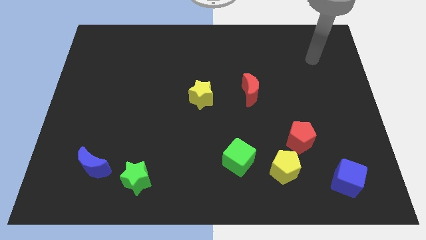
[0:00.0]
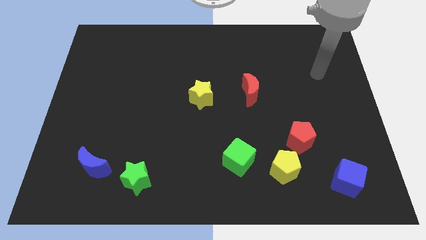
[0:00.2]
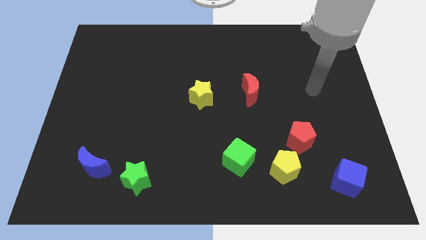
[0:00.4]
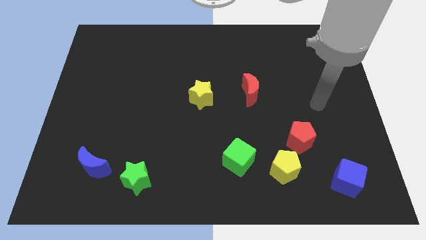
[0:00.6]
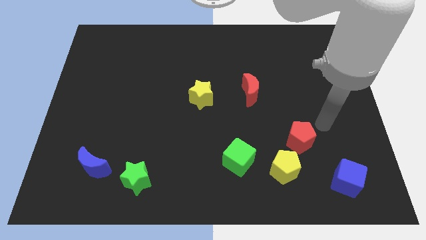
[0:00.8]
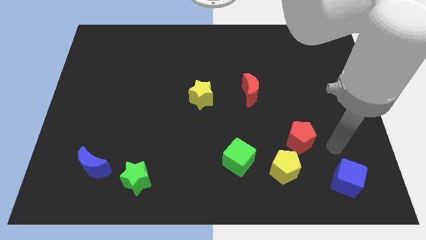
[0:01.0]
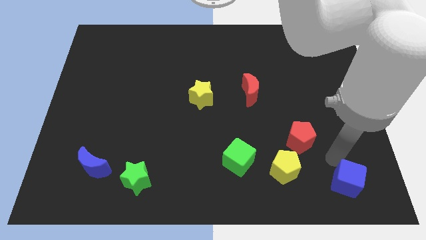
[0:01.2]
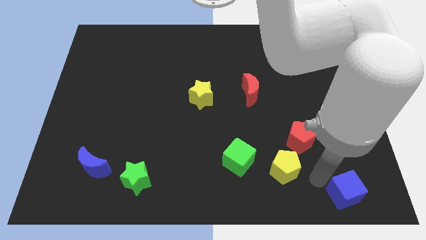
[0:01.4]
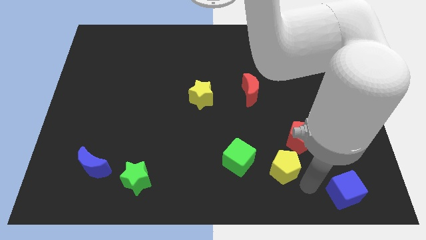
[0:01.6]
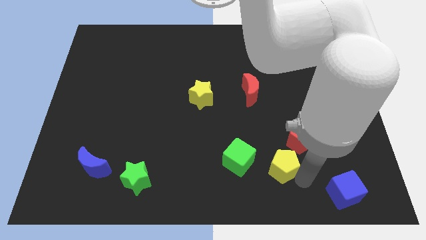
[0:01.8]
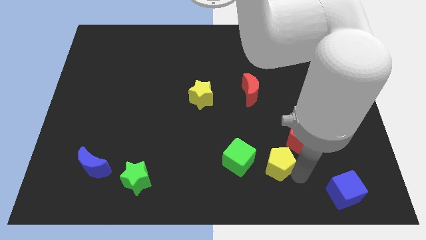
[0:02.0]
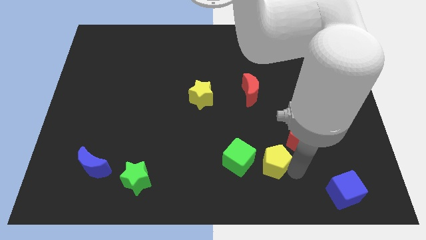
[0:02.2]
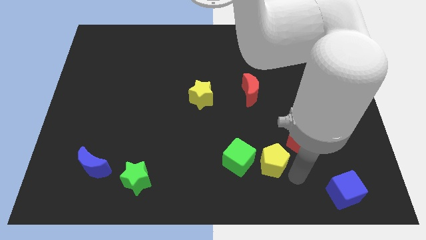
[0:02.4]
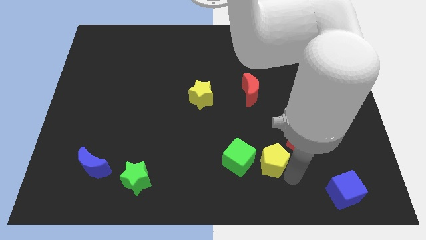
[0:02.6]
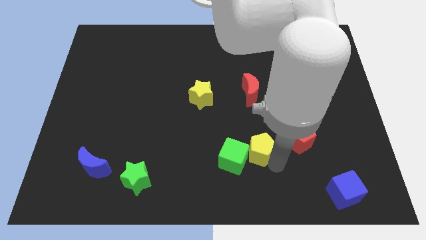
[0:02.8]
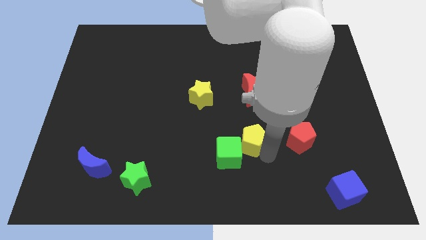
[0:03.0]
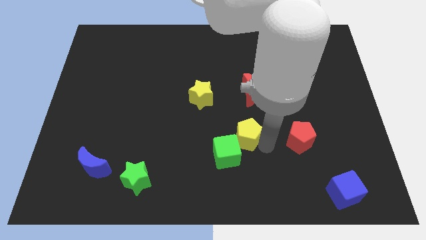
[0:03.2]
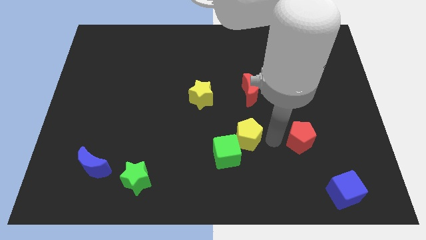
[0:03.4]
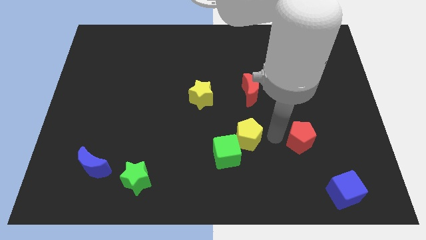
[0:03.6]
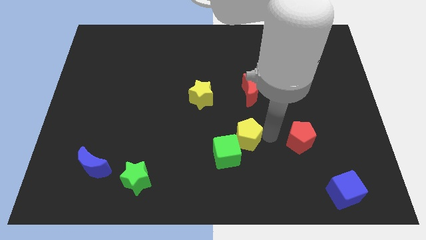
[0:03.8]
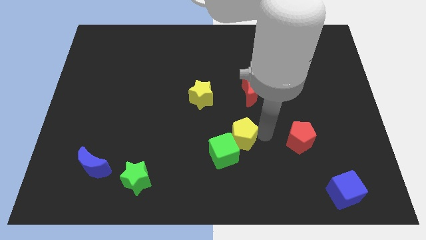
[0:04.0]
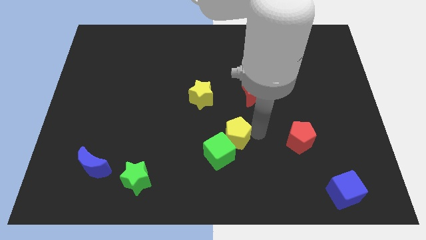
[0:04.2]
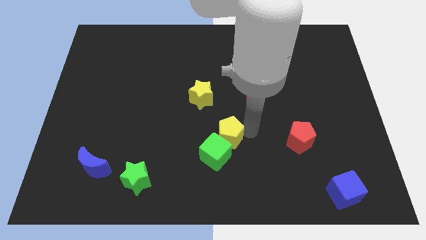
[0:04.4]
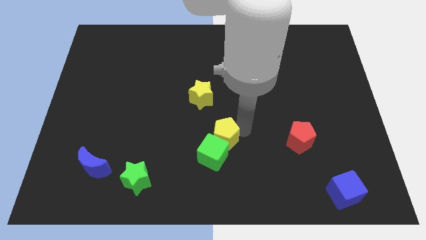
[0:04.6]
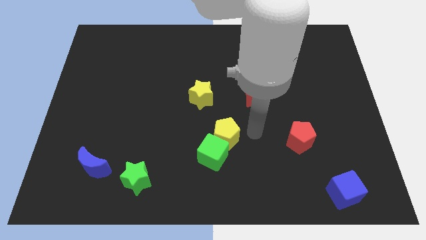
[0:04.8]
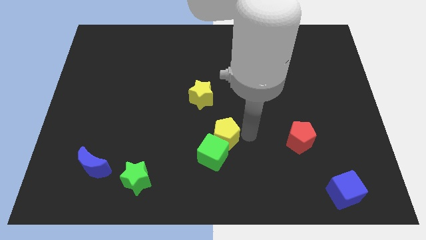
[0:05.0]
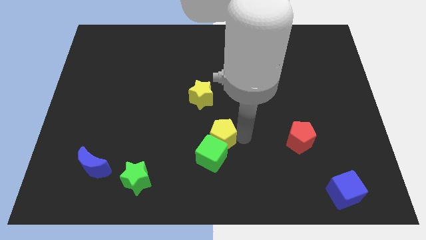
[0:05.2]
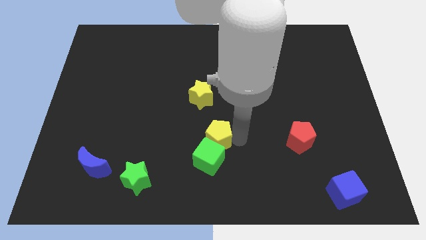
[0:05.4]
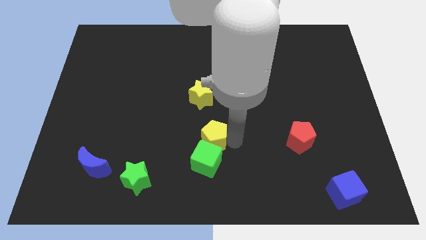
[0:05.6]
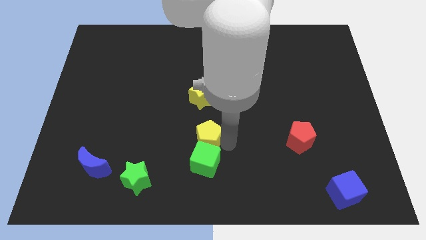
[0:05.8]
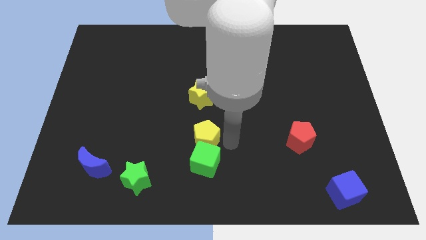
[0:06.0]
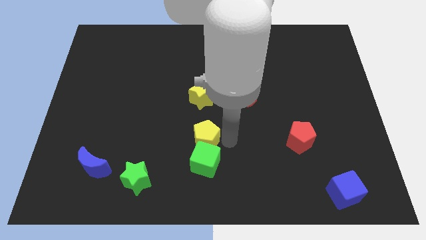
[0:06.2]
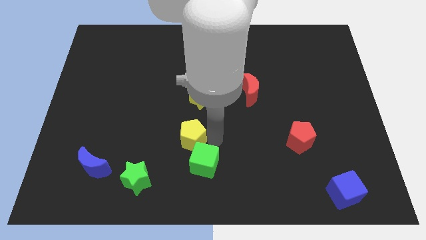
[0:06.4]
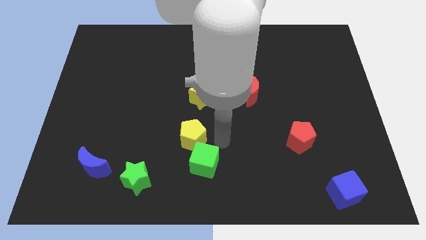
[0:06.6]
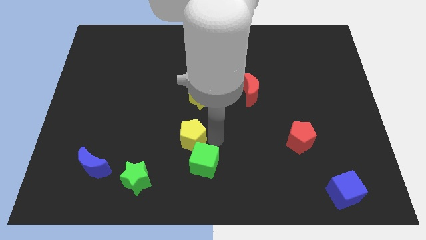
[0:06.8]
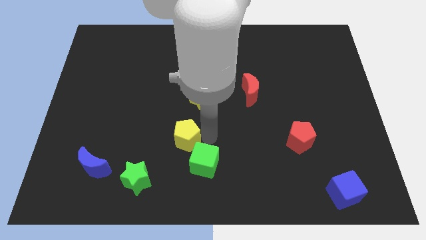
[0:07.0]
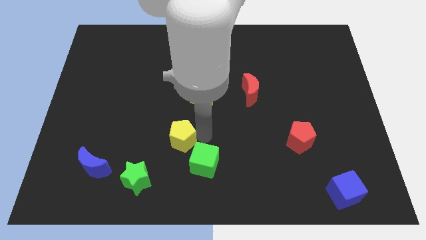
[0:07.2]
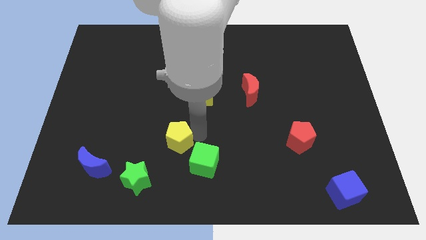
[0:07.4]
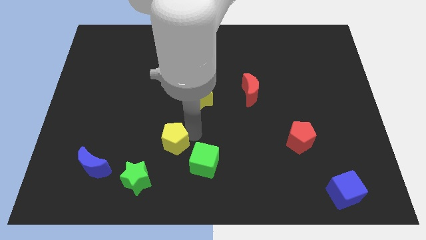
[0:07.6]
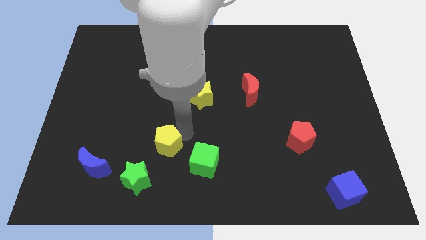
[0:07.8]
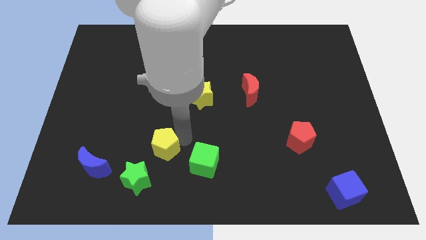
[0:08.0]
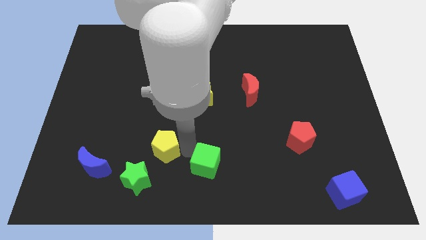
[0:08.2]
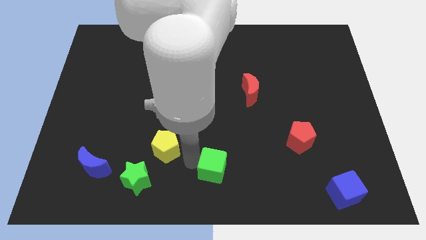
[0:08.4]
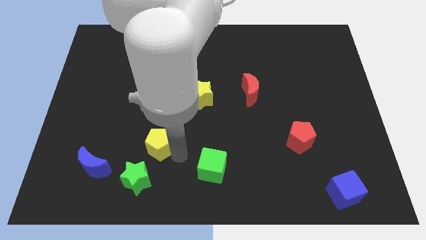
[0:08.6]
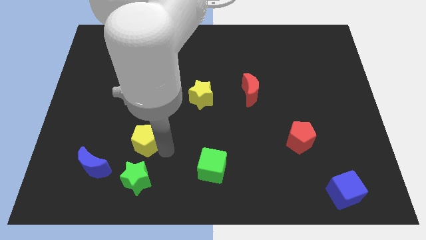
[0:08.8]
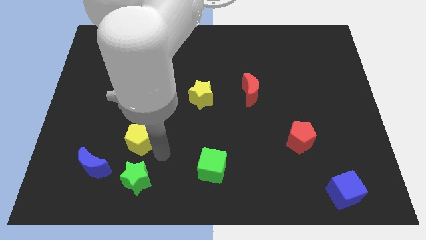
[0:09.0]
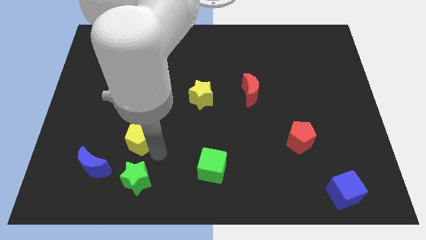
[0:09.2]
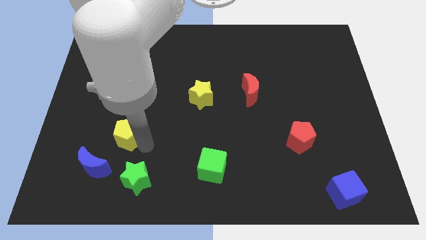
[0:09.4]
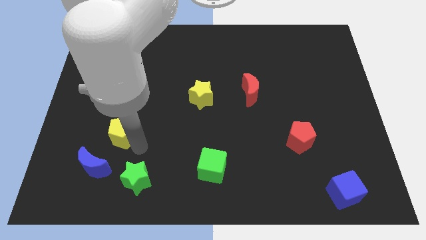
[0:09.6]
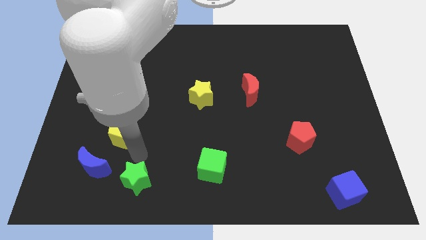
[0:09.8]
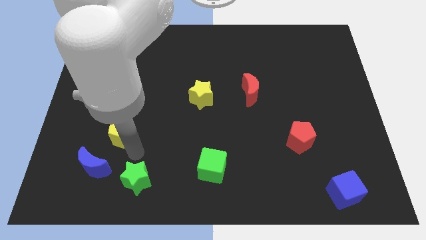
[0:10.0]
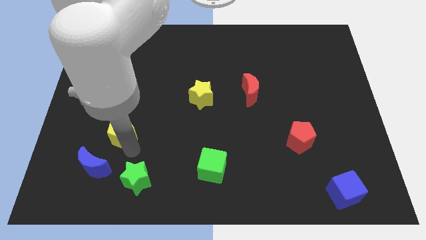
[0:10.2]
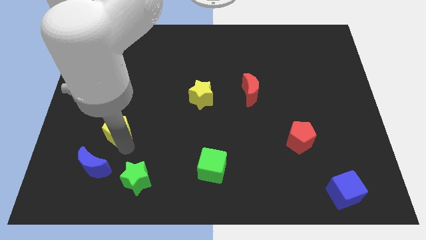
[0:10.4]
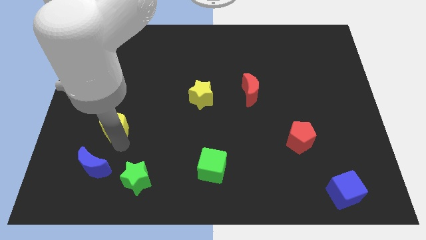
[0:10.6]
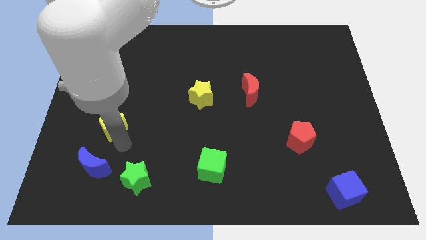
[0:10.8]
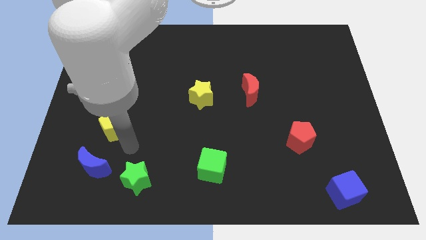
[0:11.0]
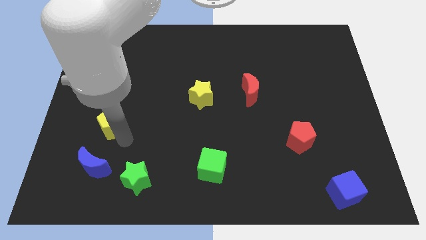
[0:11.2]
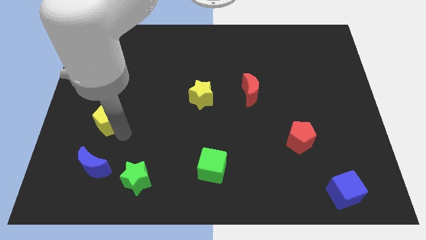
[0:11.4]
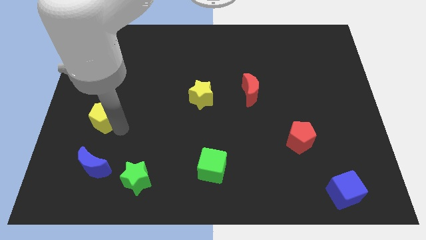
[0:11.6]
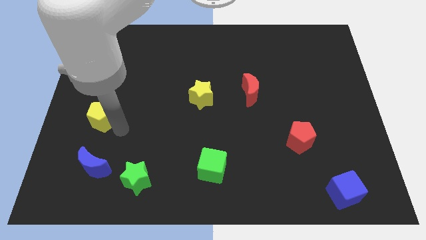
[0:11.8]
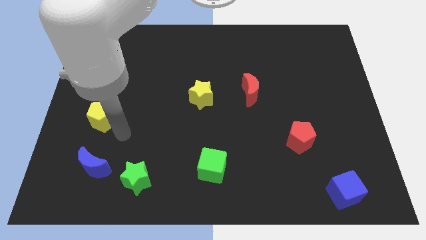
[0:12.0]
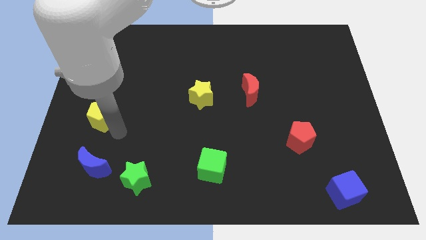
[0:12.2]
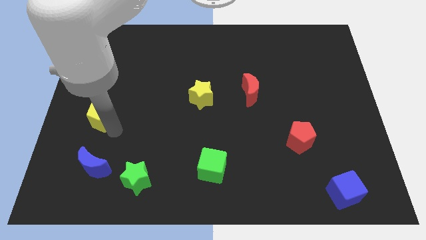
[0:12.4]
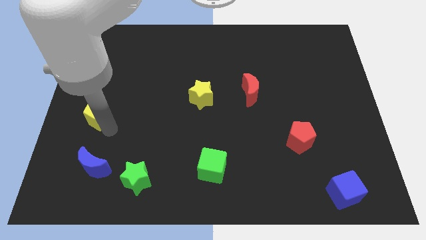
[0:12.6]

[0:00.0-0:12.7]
slide the yellow pentagon to the left side
